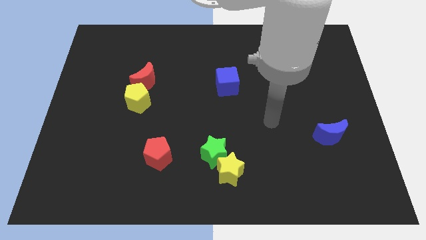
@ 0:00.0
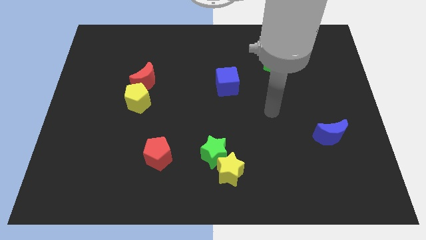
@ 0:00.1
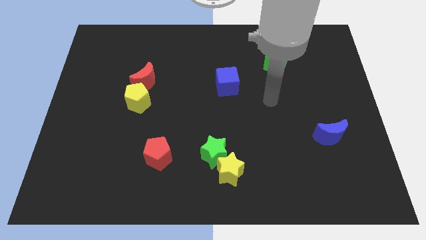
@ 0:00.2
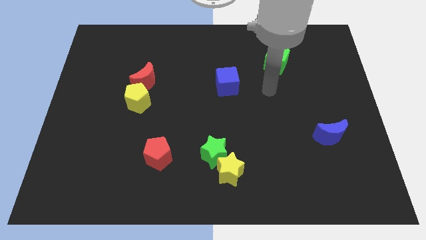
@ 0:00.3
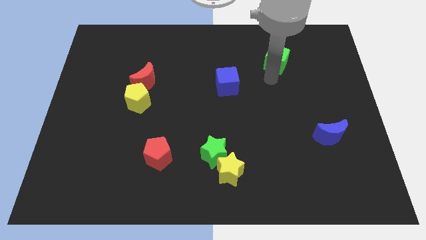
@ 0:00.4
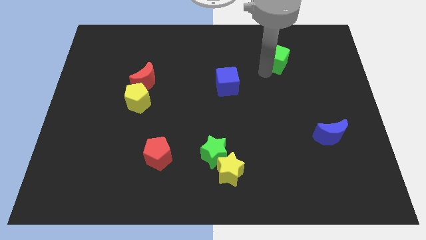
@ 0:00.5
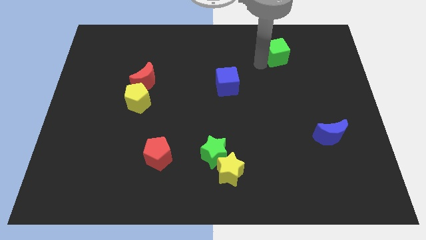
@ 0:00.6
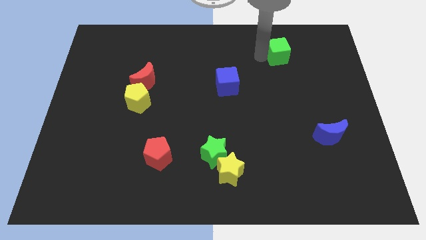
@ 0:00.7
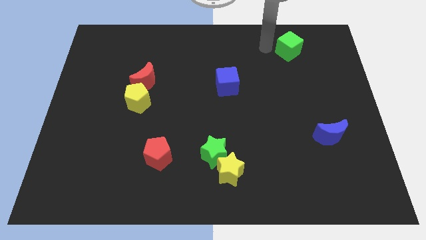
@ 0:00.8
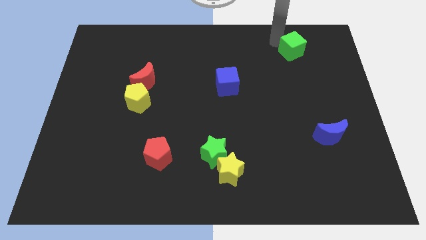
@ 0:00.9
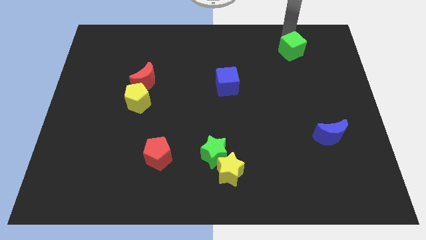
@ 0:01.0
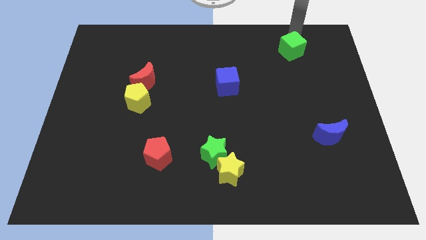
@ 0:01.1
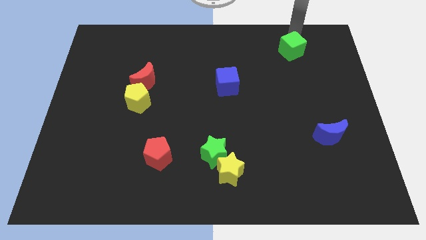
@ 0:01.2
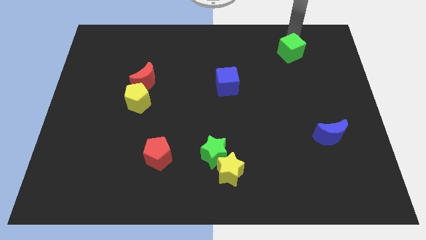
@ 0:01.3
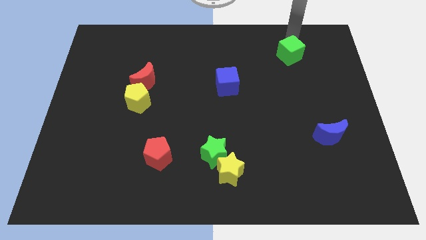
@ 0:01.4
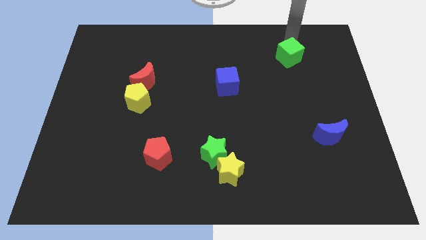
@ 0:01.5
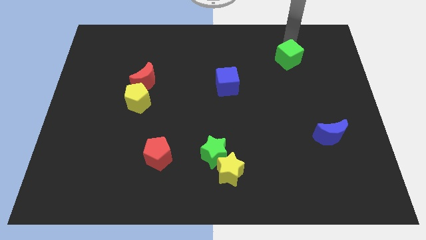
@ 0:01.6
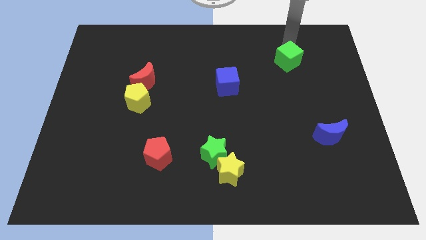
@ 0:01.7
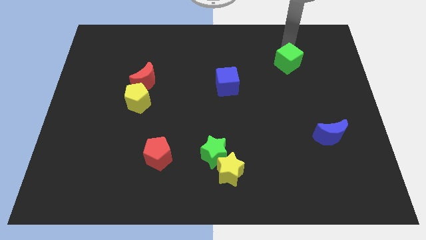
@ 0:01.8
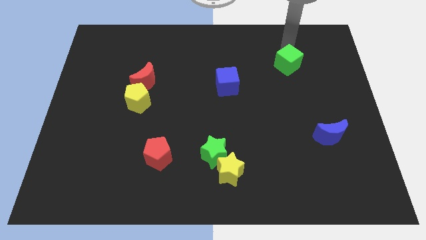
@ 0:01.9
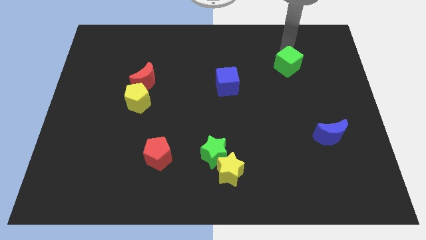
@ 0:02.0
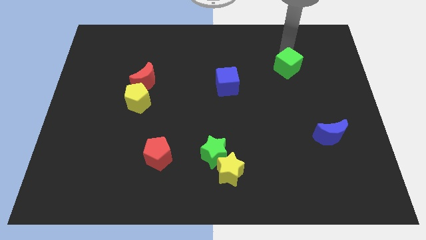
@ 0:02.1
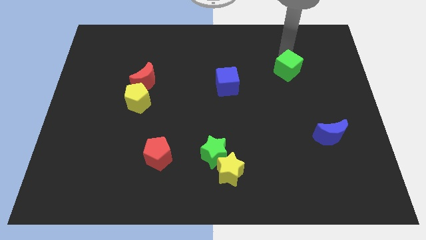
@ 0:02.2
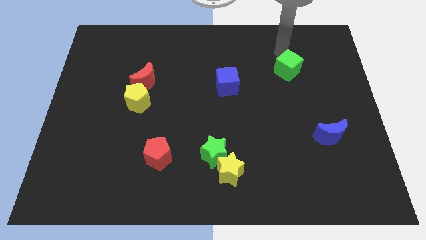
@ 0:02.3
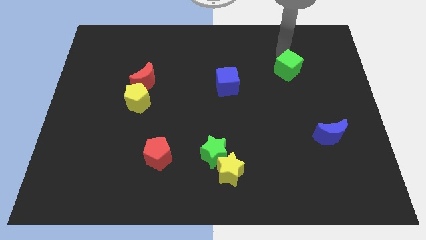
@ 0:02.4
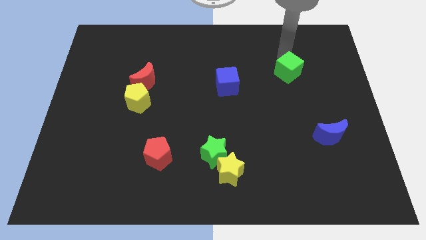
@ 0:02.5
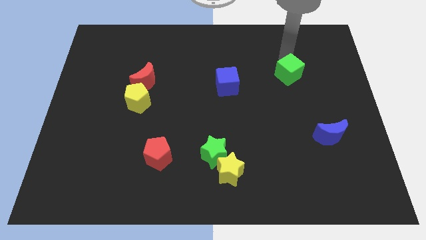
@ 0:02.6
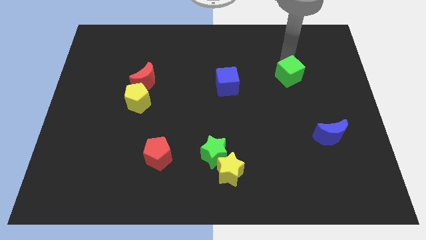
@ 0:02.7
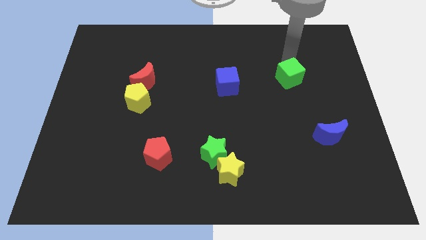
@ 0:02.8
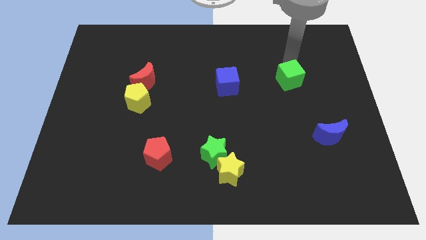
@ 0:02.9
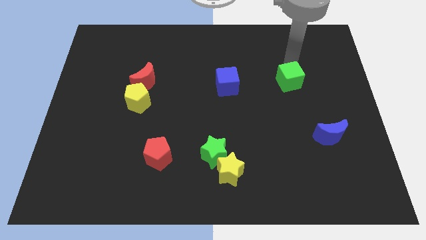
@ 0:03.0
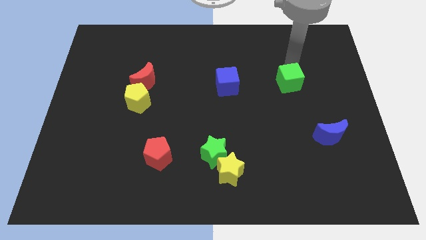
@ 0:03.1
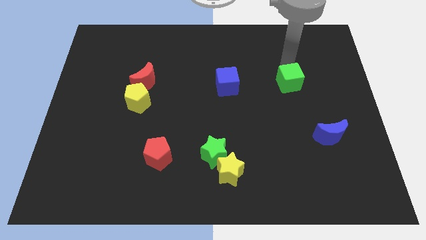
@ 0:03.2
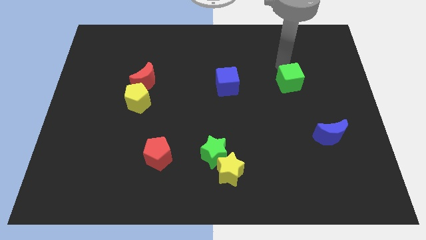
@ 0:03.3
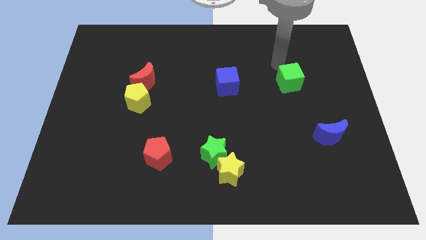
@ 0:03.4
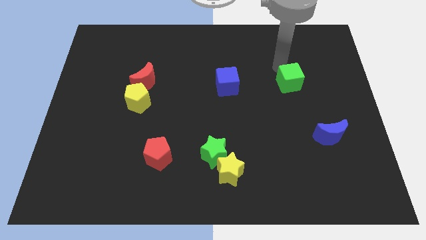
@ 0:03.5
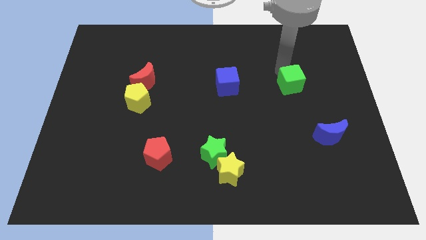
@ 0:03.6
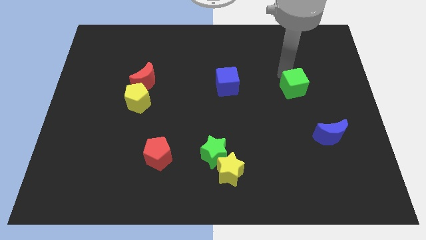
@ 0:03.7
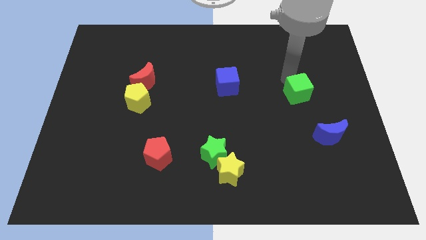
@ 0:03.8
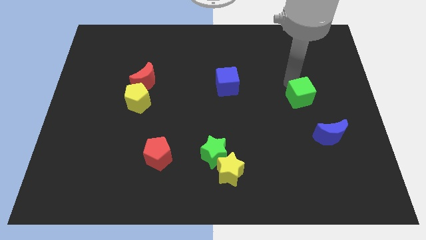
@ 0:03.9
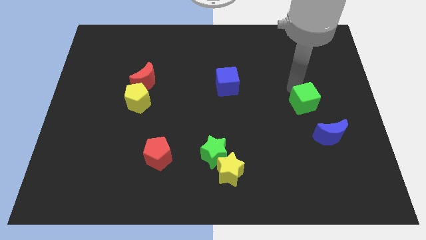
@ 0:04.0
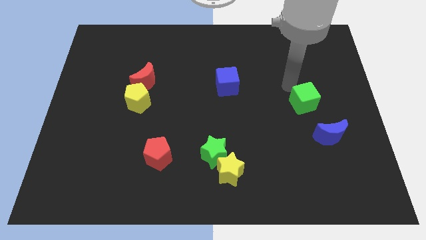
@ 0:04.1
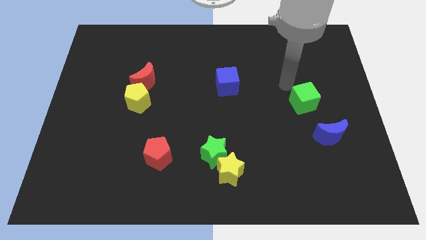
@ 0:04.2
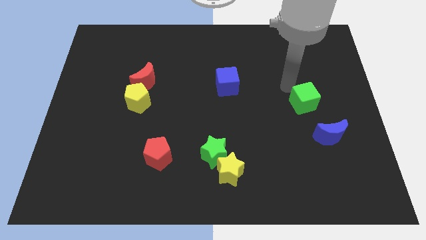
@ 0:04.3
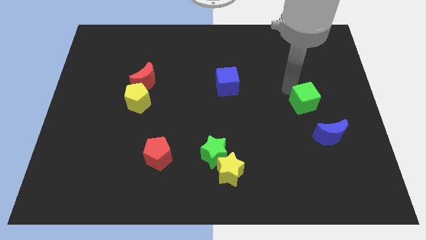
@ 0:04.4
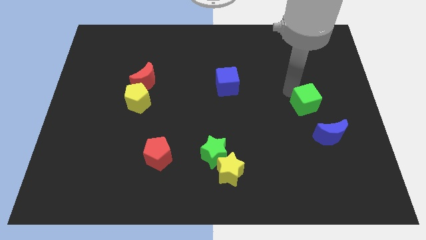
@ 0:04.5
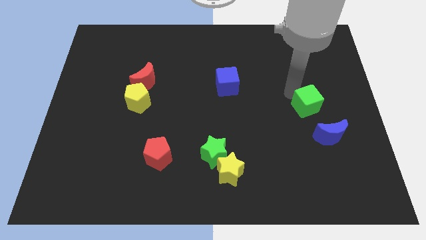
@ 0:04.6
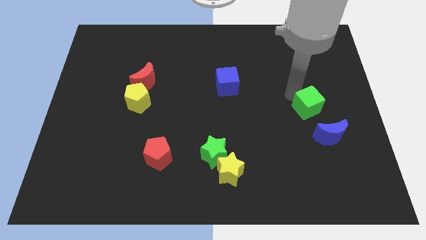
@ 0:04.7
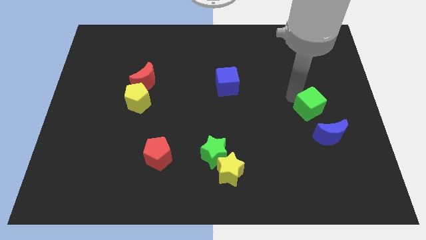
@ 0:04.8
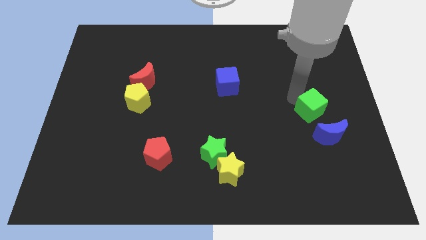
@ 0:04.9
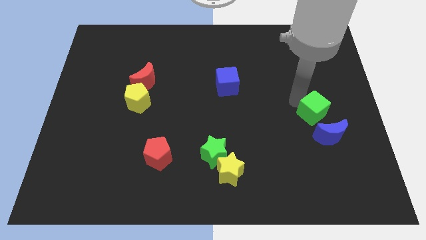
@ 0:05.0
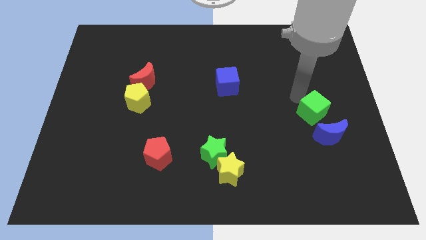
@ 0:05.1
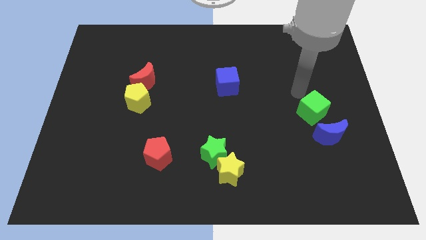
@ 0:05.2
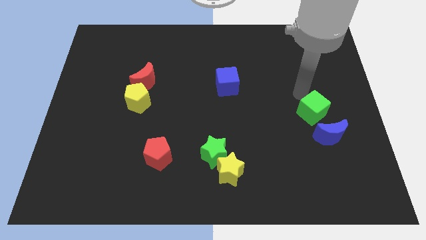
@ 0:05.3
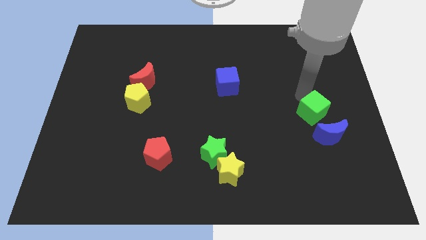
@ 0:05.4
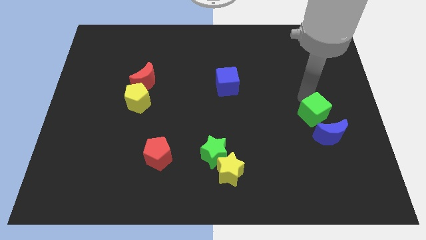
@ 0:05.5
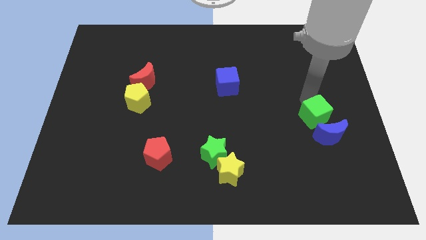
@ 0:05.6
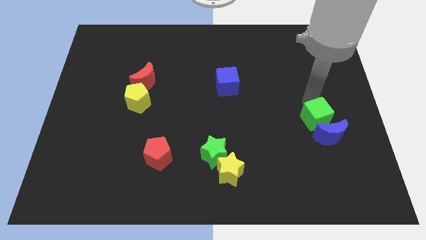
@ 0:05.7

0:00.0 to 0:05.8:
slide the green cube to the blue moon

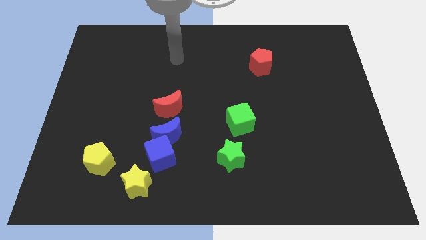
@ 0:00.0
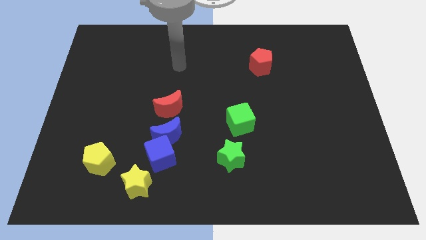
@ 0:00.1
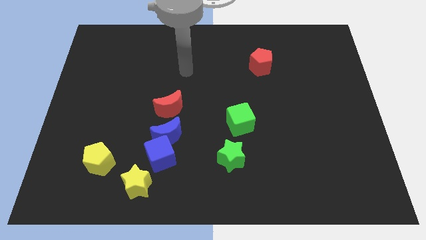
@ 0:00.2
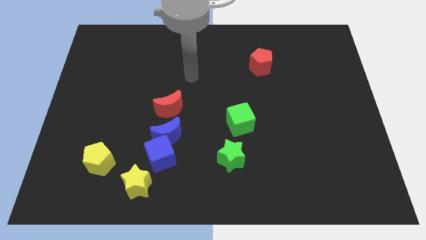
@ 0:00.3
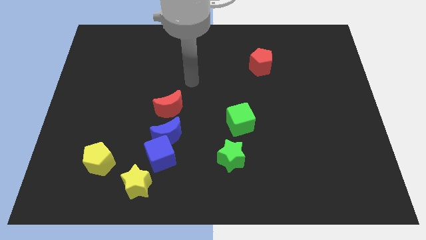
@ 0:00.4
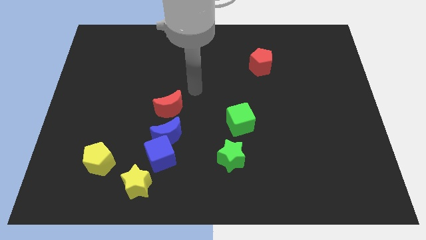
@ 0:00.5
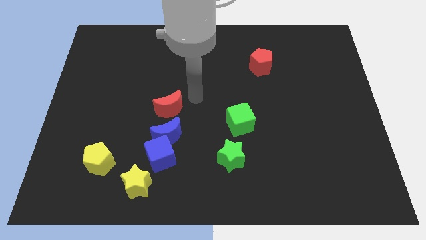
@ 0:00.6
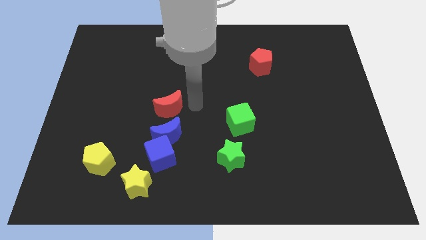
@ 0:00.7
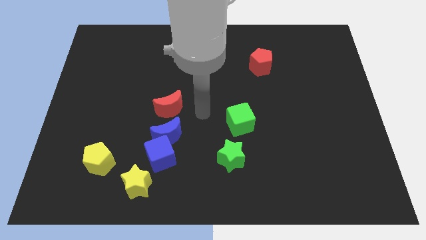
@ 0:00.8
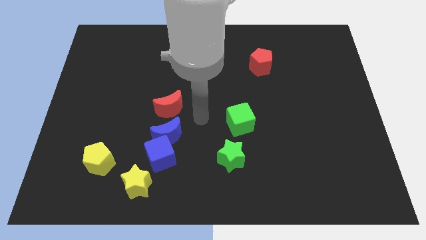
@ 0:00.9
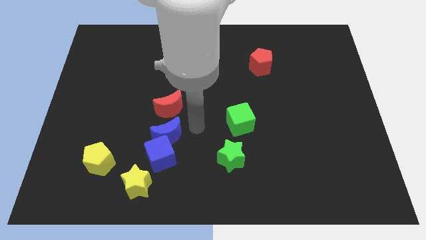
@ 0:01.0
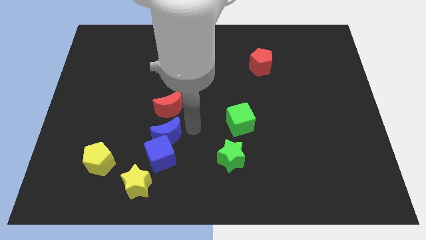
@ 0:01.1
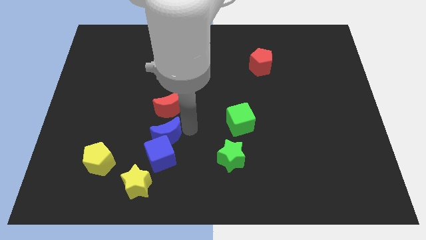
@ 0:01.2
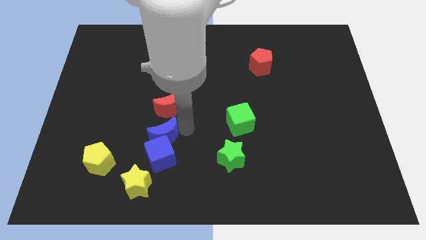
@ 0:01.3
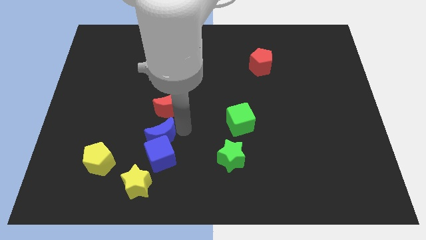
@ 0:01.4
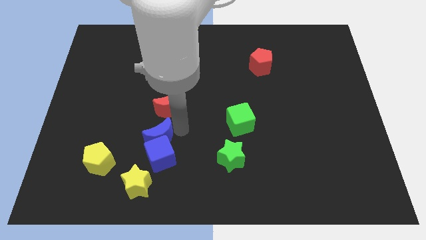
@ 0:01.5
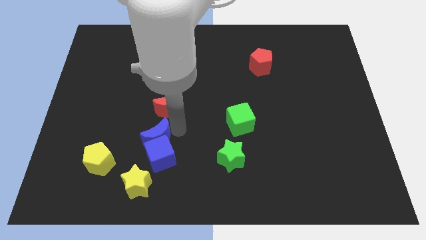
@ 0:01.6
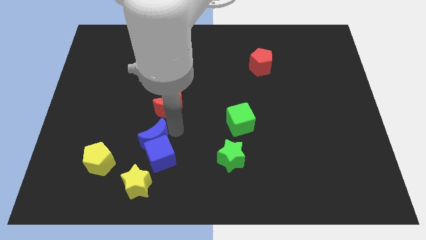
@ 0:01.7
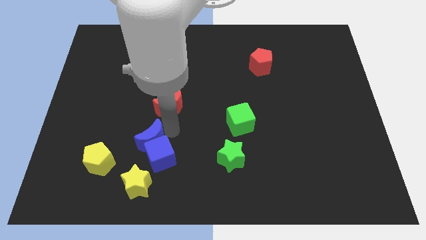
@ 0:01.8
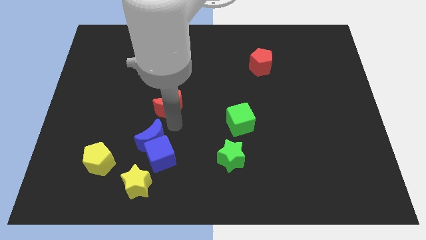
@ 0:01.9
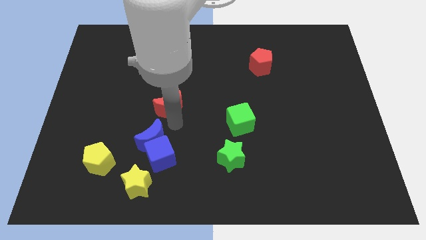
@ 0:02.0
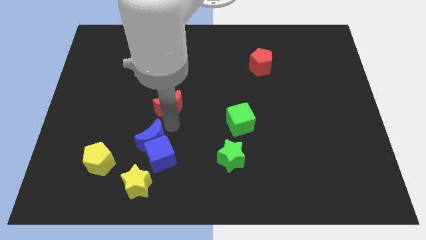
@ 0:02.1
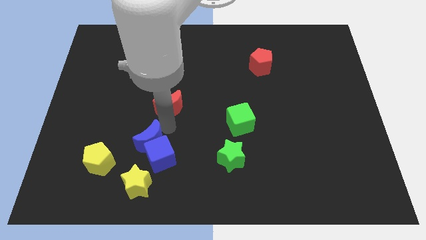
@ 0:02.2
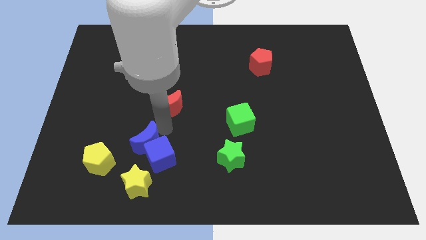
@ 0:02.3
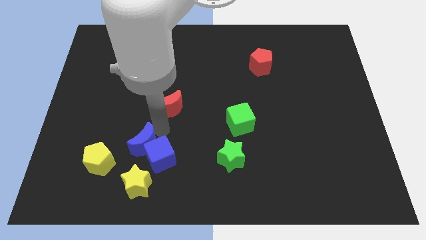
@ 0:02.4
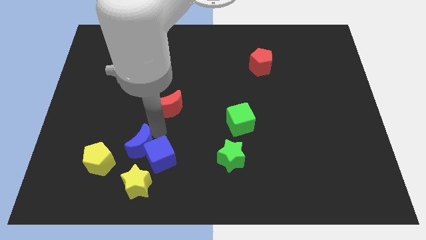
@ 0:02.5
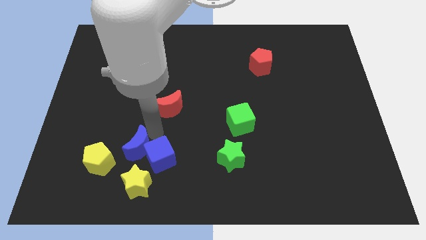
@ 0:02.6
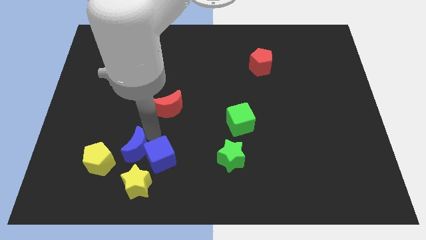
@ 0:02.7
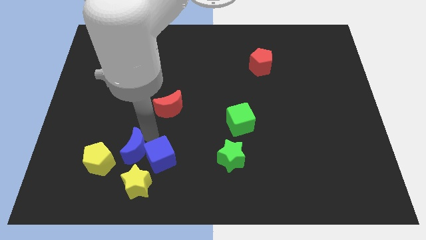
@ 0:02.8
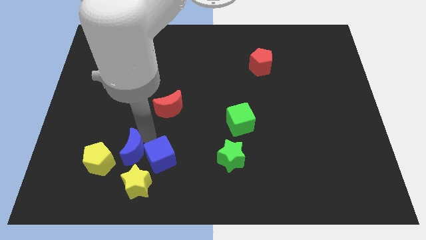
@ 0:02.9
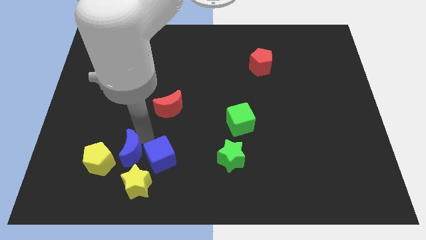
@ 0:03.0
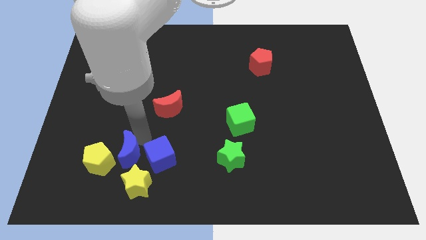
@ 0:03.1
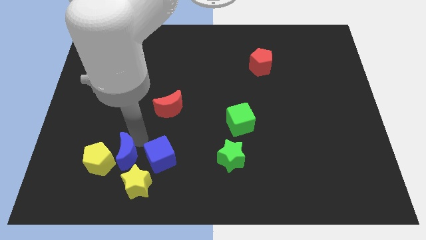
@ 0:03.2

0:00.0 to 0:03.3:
push the blue moon to the yellow pentagon
